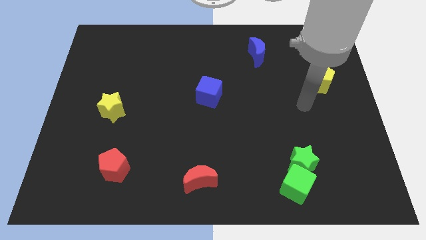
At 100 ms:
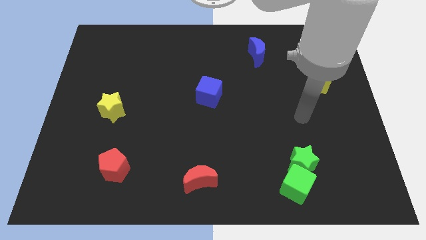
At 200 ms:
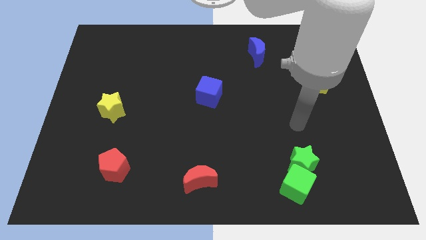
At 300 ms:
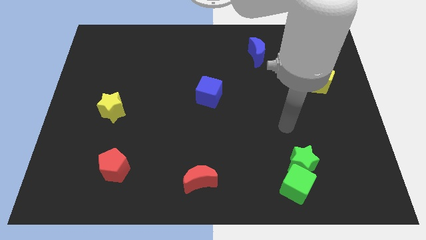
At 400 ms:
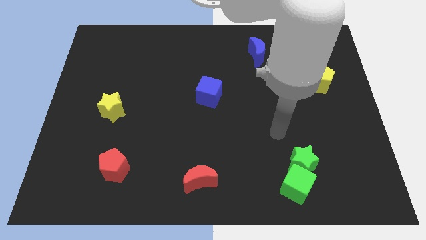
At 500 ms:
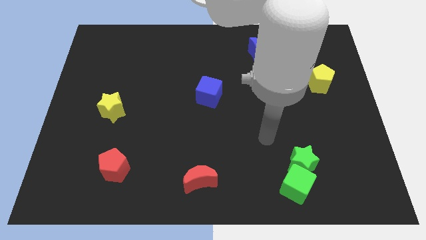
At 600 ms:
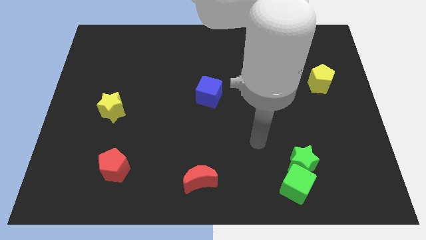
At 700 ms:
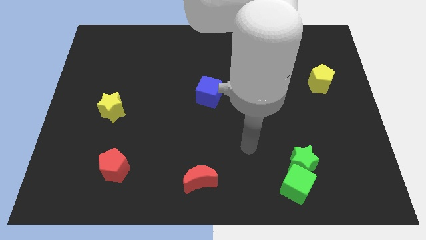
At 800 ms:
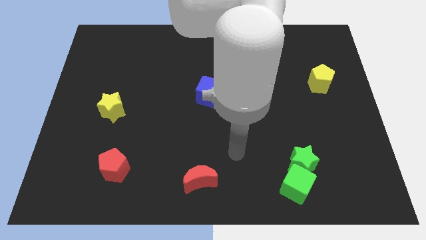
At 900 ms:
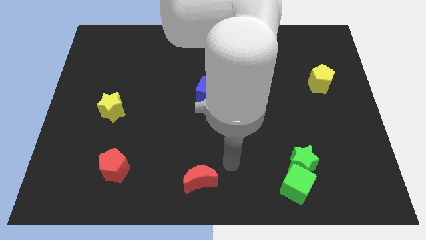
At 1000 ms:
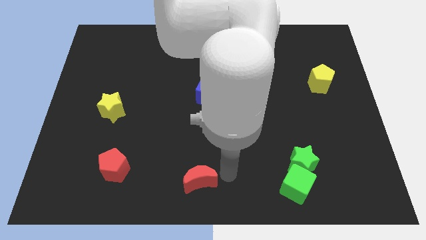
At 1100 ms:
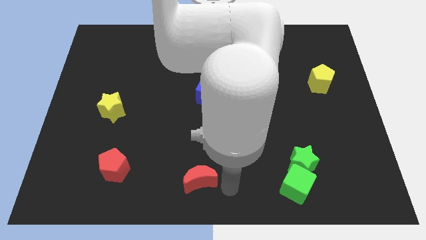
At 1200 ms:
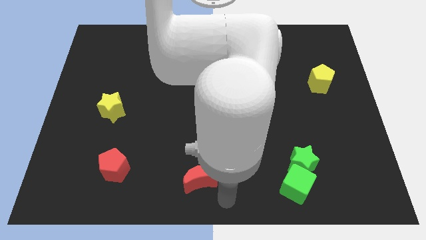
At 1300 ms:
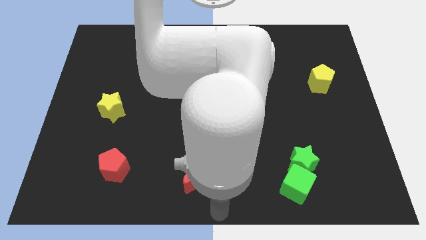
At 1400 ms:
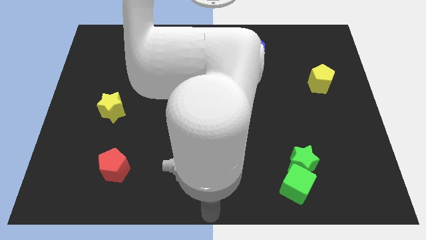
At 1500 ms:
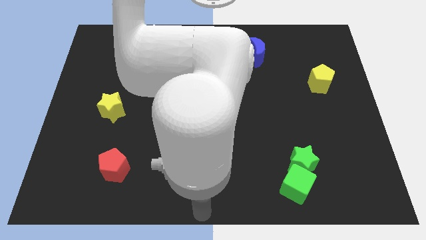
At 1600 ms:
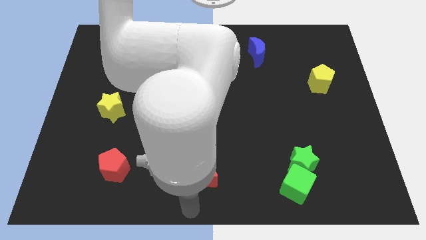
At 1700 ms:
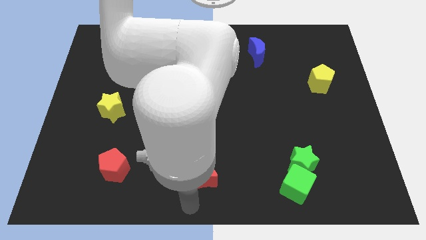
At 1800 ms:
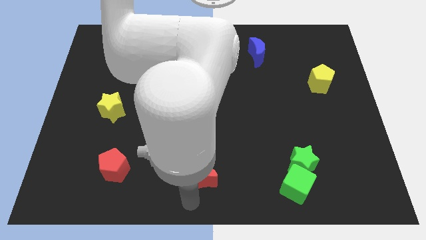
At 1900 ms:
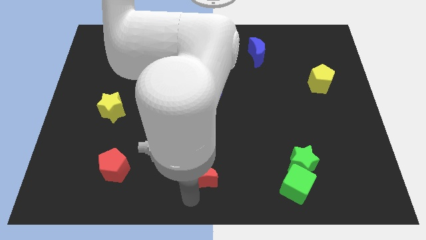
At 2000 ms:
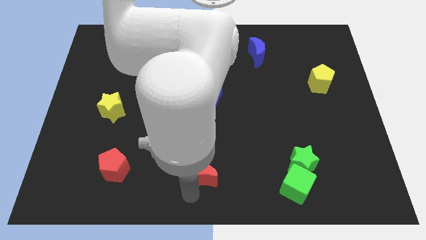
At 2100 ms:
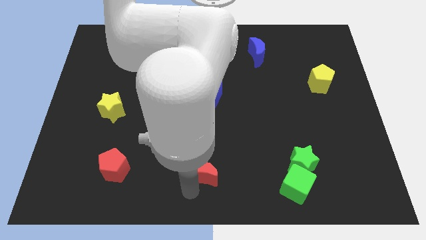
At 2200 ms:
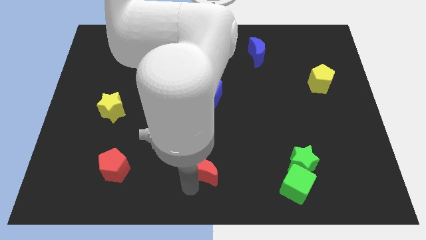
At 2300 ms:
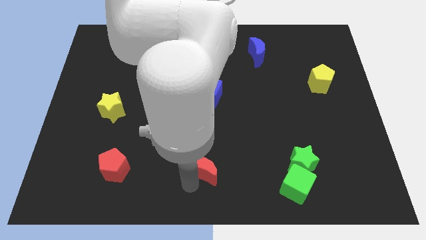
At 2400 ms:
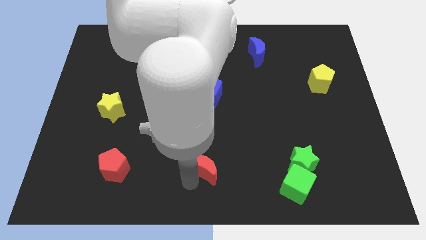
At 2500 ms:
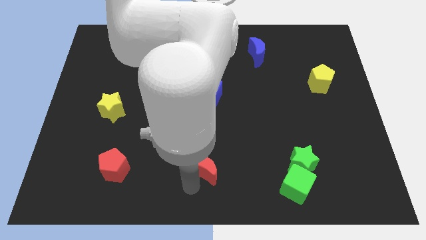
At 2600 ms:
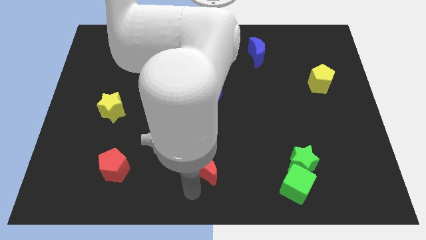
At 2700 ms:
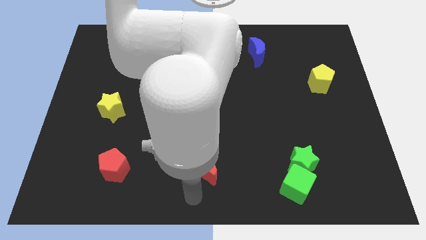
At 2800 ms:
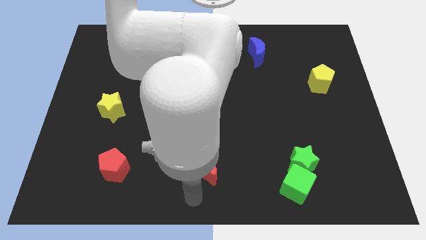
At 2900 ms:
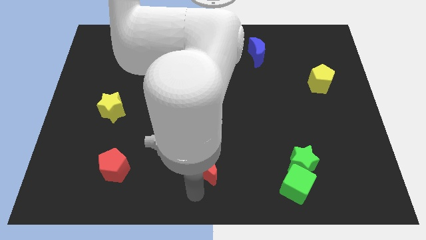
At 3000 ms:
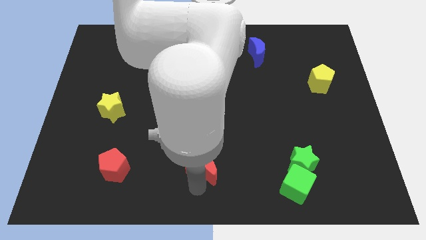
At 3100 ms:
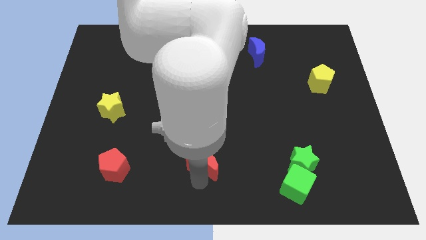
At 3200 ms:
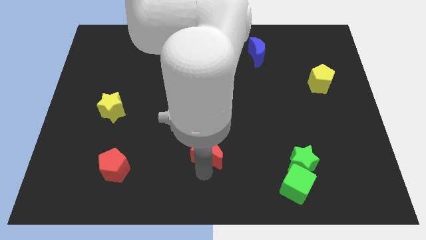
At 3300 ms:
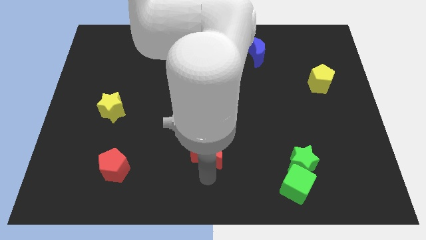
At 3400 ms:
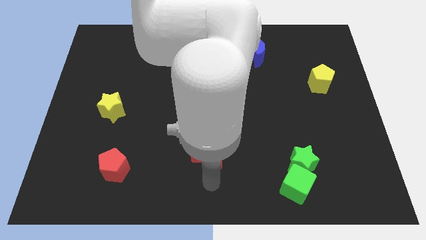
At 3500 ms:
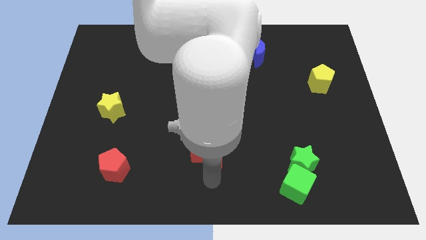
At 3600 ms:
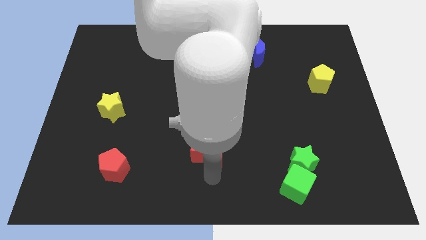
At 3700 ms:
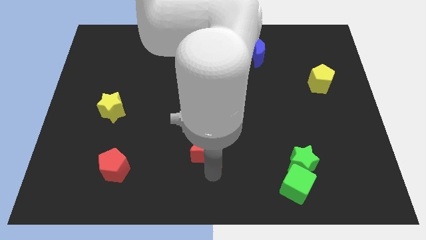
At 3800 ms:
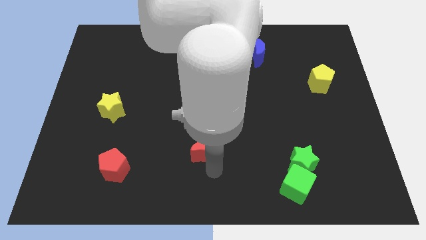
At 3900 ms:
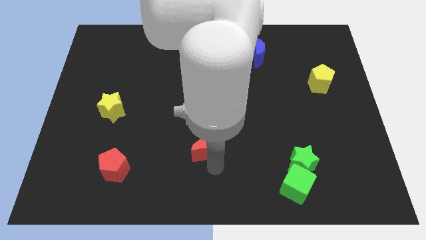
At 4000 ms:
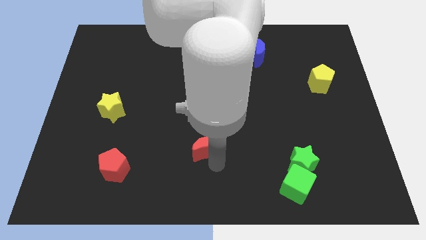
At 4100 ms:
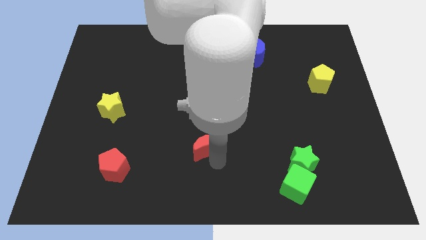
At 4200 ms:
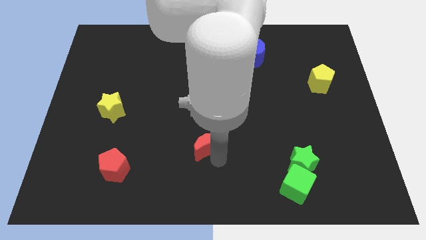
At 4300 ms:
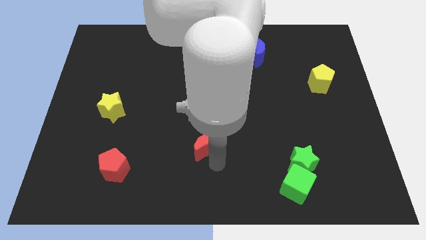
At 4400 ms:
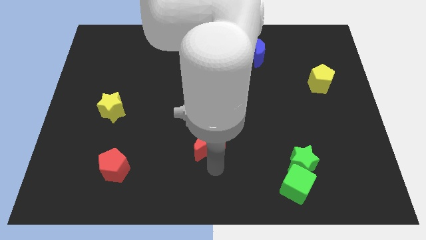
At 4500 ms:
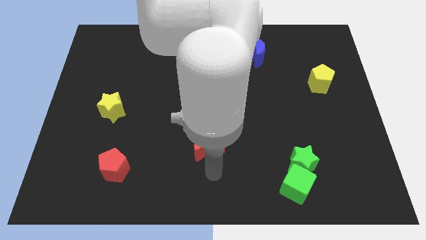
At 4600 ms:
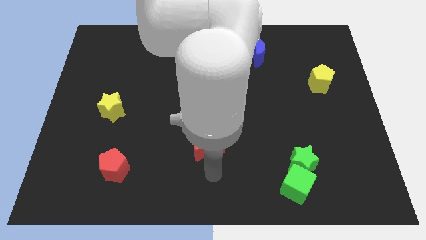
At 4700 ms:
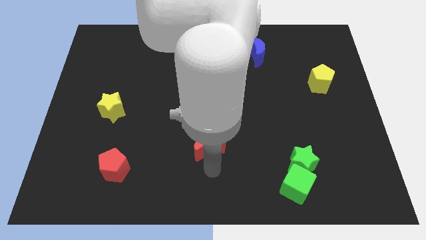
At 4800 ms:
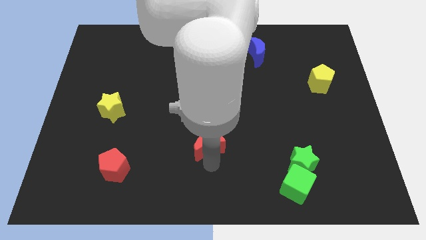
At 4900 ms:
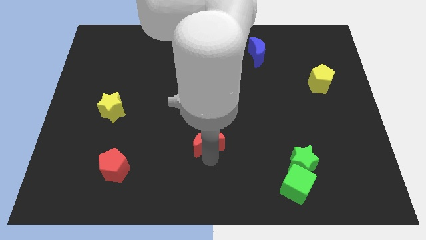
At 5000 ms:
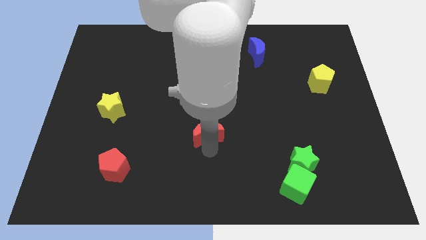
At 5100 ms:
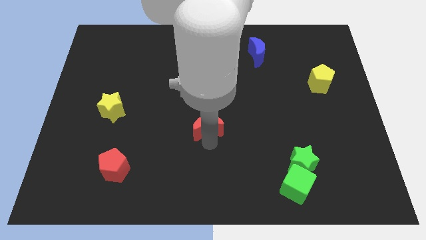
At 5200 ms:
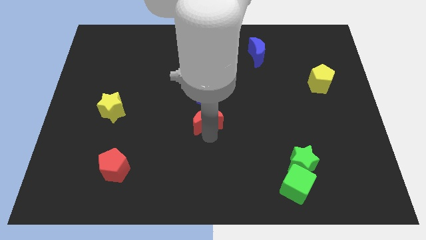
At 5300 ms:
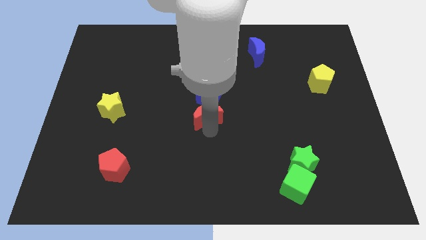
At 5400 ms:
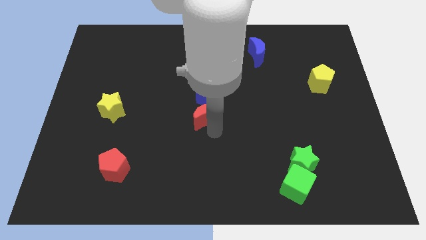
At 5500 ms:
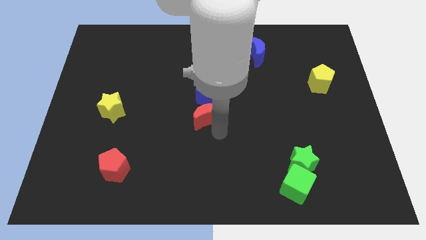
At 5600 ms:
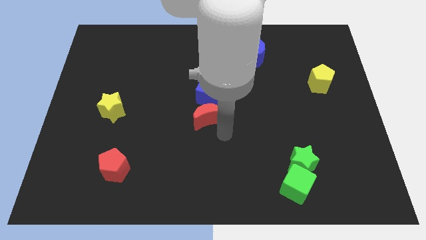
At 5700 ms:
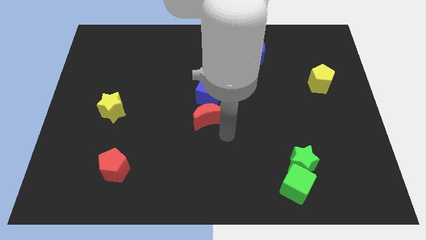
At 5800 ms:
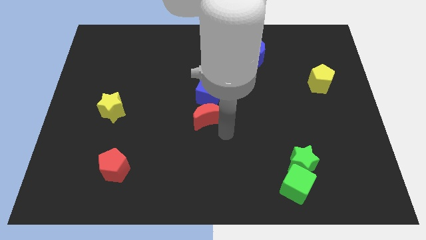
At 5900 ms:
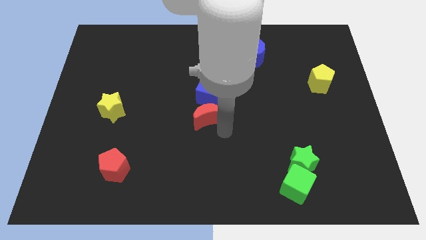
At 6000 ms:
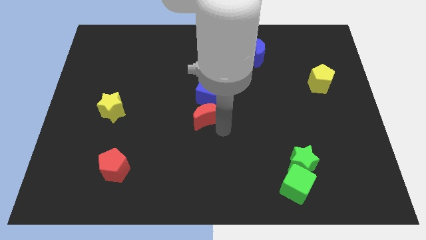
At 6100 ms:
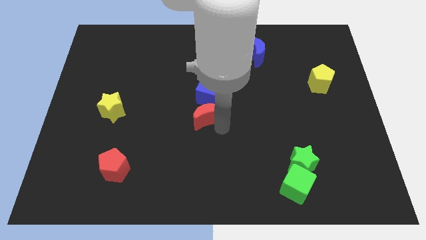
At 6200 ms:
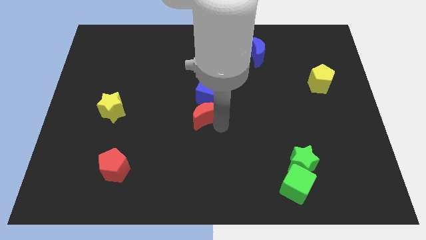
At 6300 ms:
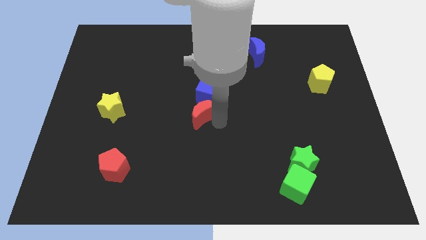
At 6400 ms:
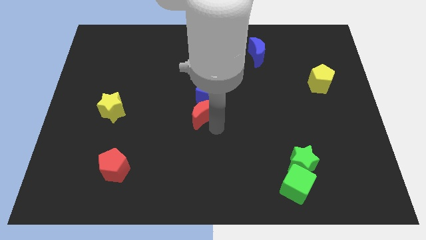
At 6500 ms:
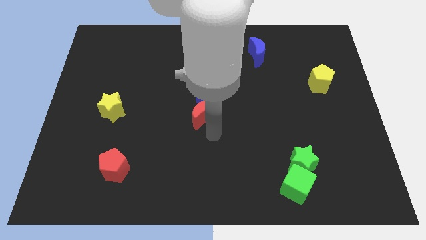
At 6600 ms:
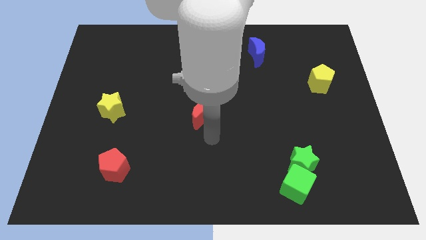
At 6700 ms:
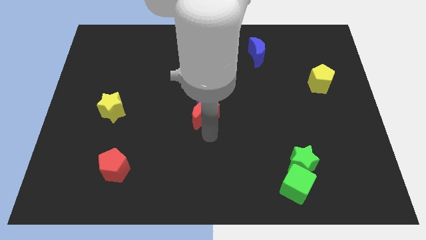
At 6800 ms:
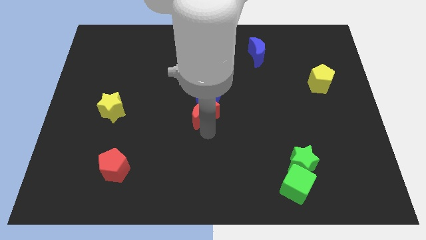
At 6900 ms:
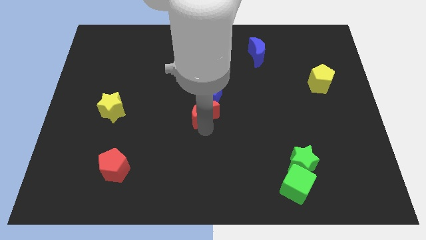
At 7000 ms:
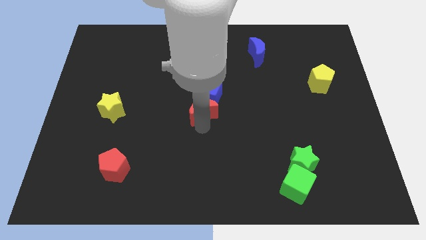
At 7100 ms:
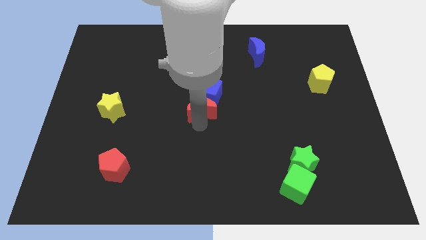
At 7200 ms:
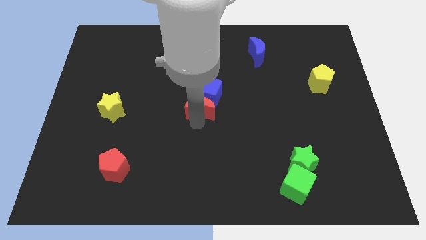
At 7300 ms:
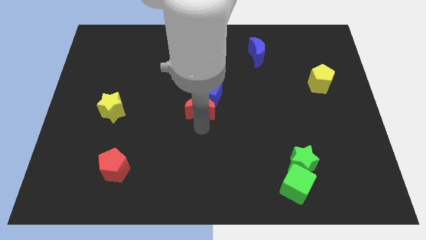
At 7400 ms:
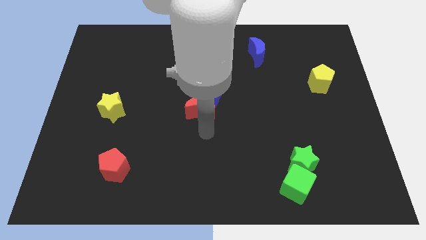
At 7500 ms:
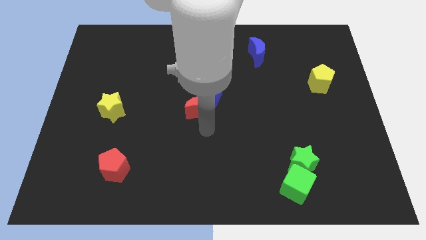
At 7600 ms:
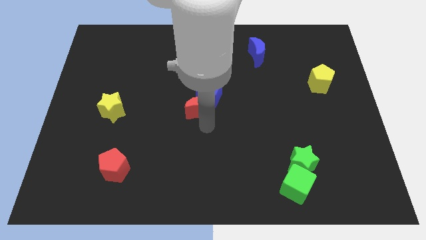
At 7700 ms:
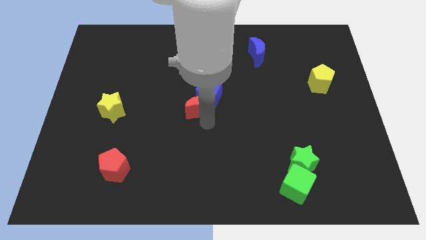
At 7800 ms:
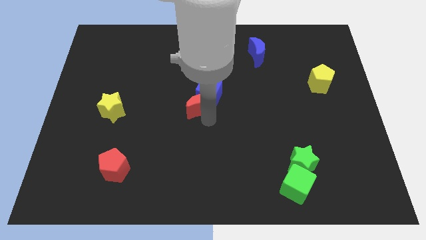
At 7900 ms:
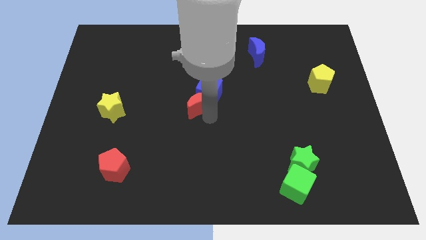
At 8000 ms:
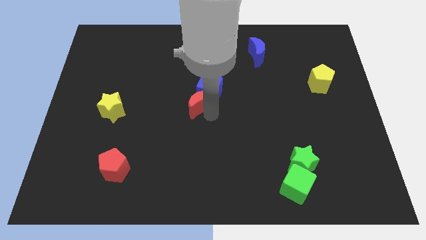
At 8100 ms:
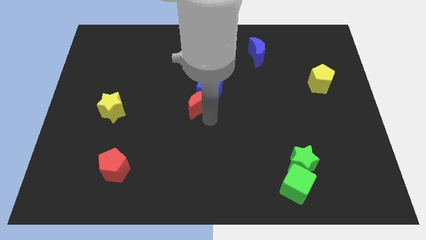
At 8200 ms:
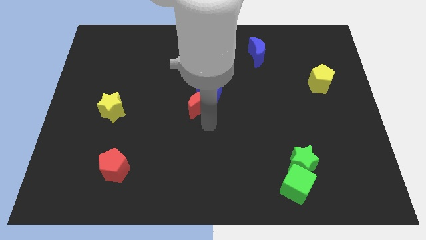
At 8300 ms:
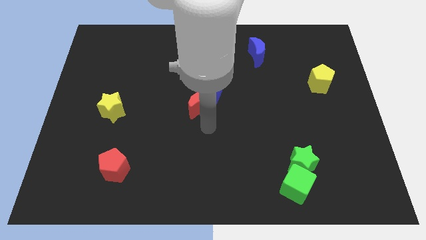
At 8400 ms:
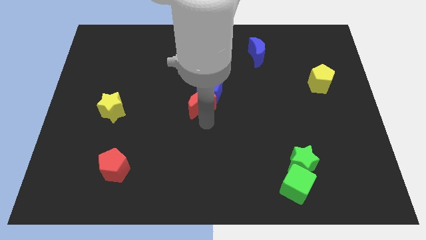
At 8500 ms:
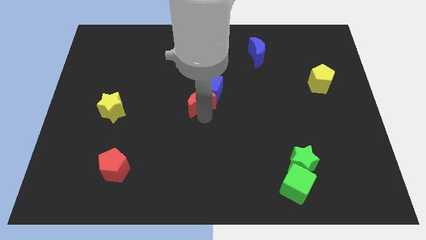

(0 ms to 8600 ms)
push the red moon up
